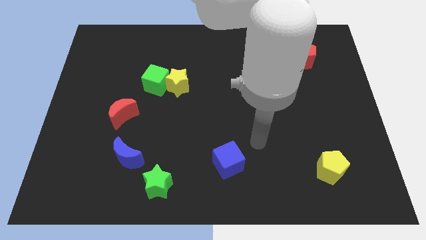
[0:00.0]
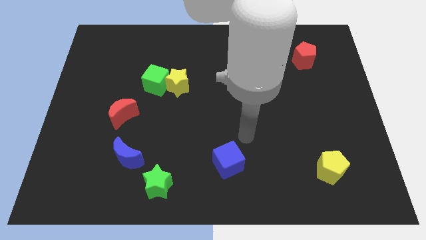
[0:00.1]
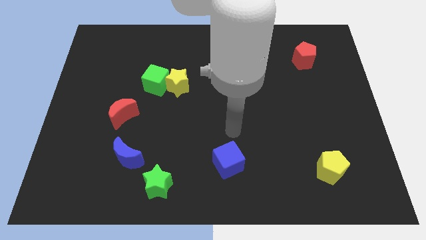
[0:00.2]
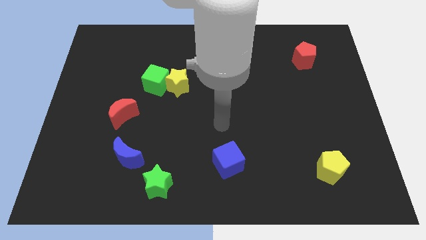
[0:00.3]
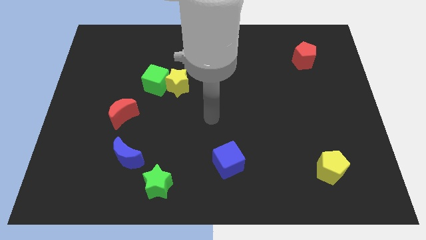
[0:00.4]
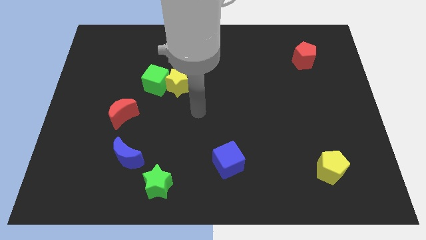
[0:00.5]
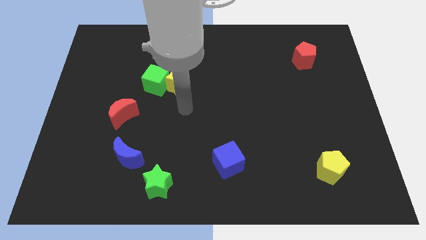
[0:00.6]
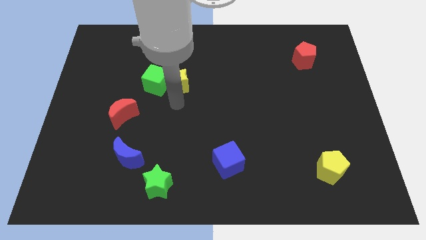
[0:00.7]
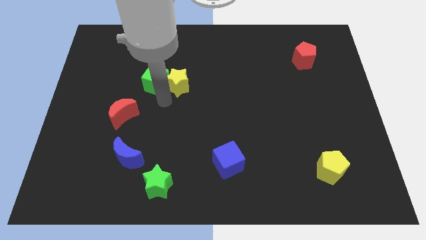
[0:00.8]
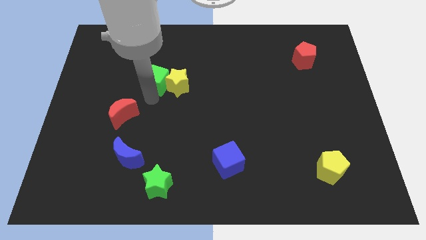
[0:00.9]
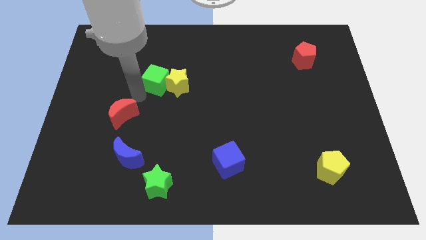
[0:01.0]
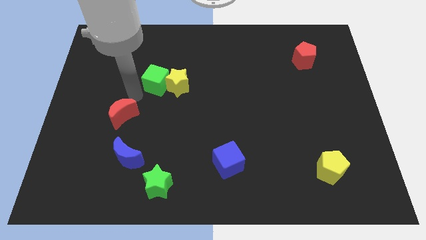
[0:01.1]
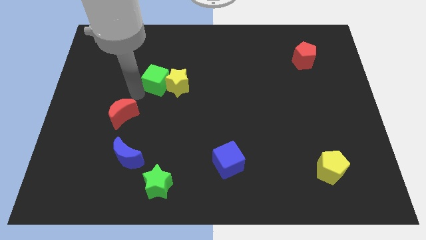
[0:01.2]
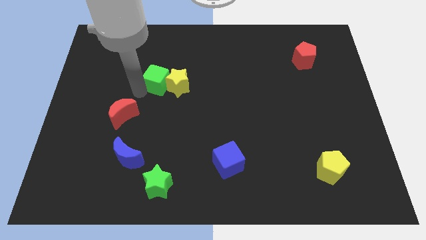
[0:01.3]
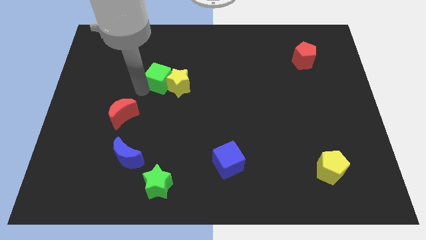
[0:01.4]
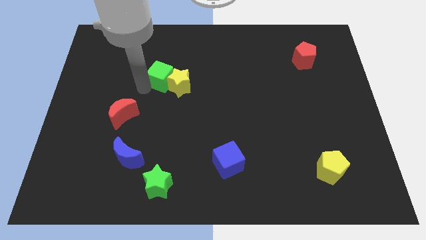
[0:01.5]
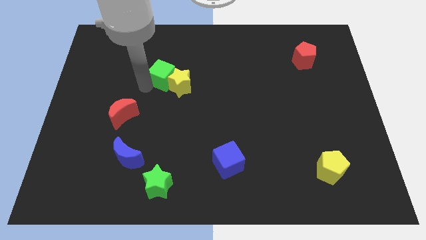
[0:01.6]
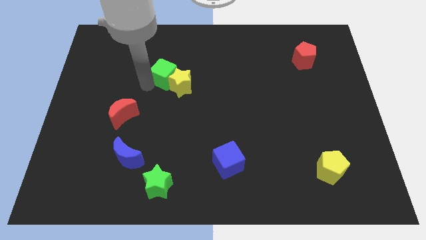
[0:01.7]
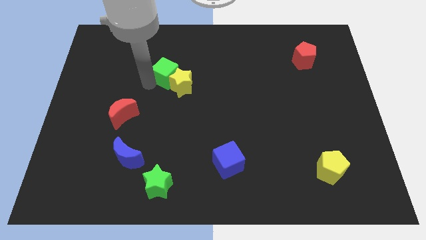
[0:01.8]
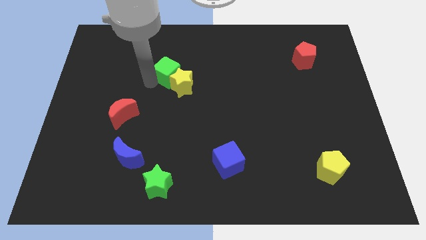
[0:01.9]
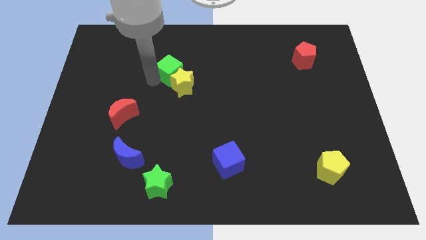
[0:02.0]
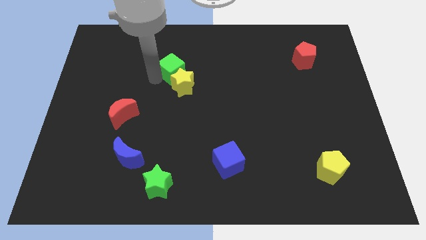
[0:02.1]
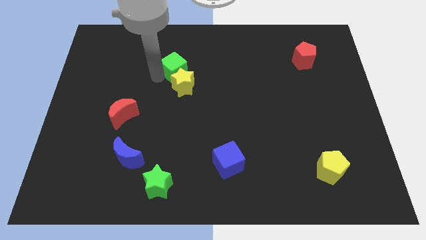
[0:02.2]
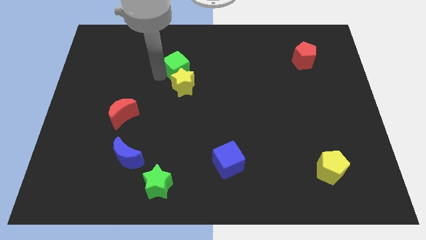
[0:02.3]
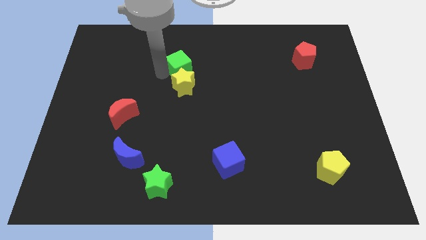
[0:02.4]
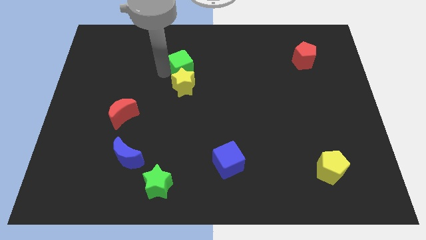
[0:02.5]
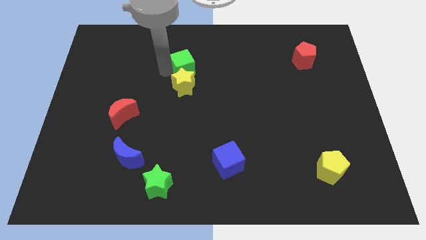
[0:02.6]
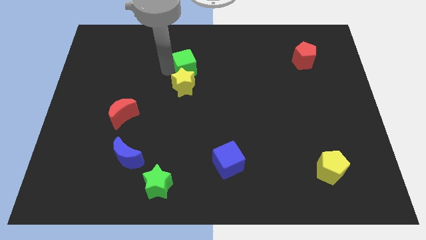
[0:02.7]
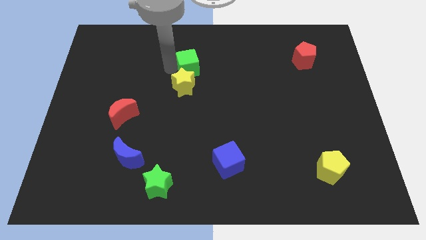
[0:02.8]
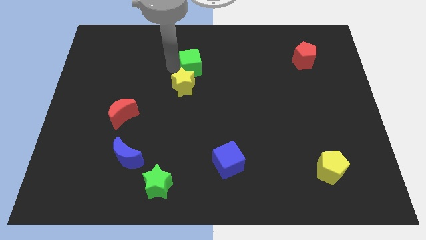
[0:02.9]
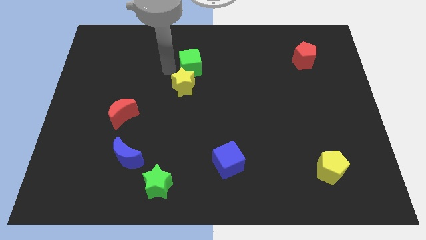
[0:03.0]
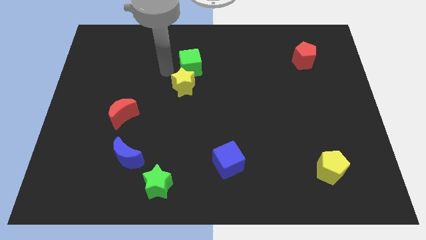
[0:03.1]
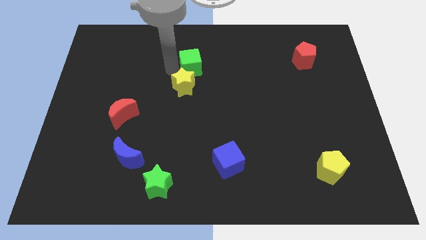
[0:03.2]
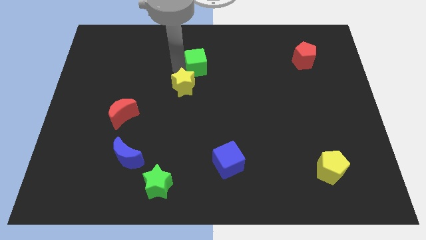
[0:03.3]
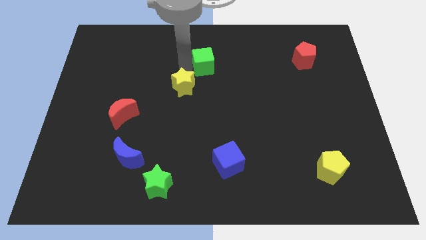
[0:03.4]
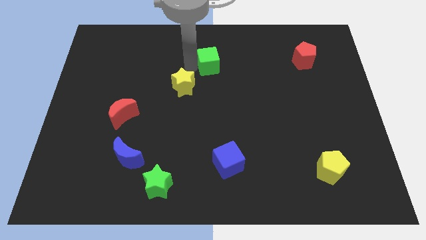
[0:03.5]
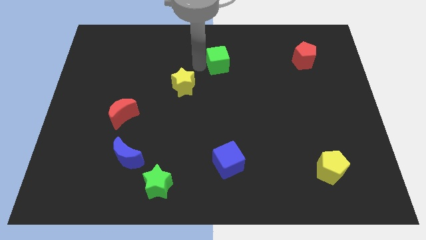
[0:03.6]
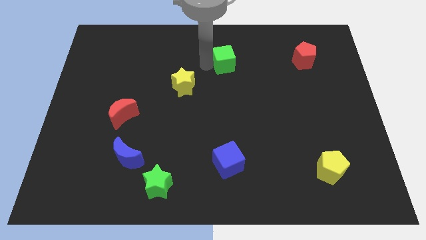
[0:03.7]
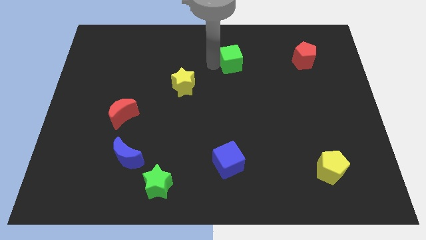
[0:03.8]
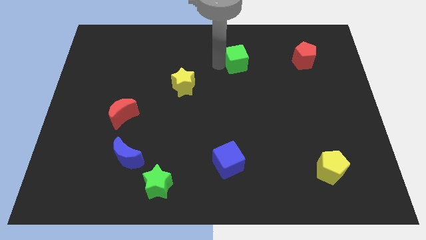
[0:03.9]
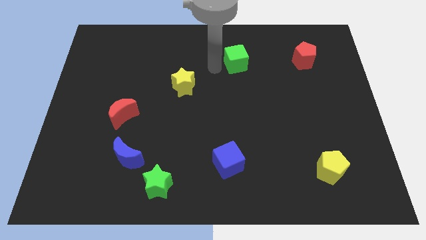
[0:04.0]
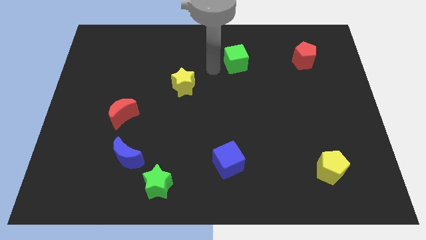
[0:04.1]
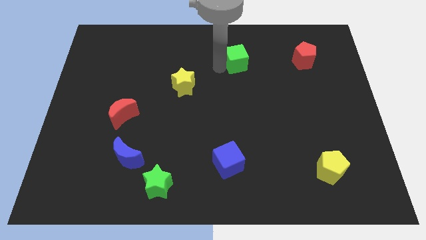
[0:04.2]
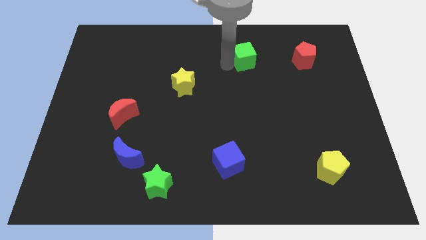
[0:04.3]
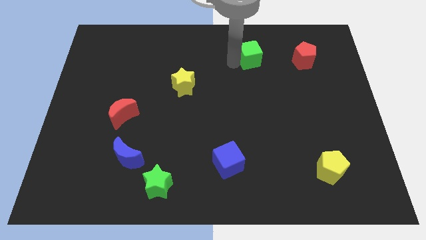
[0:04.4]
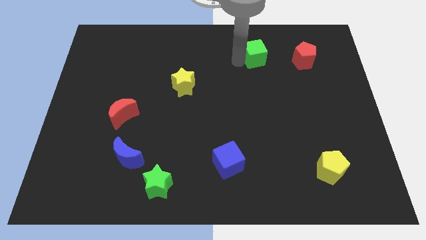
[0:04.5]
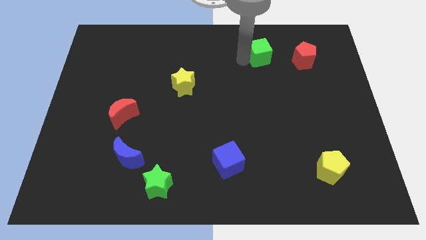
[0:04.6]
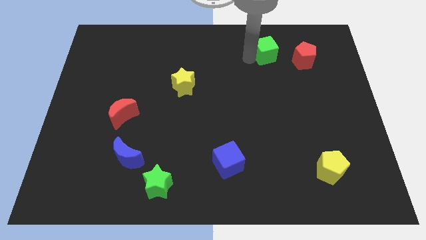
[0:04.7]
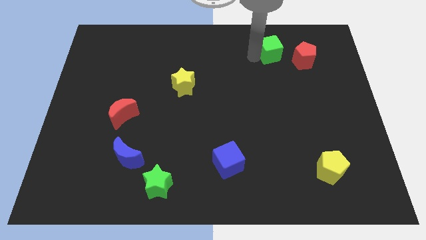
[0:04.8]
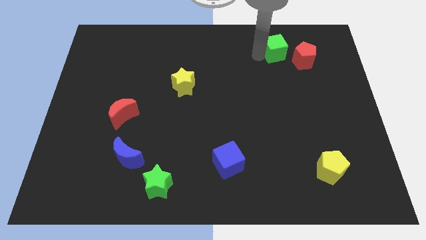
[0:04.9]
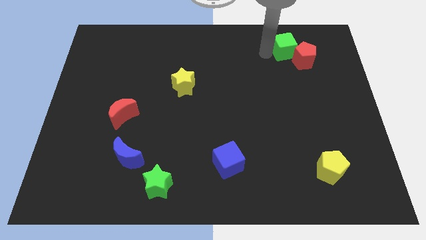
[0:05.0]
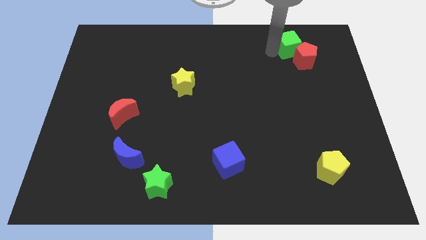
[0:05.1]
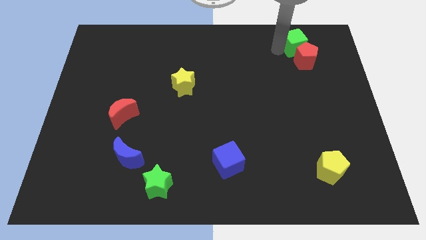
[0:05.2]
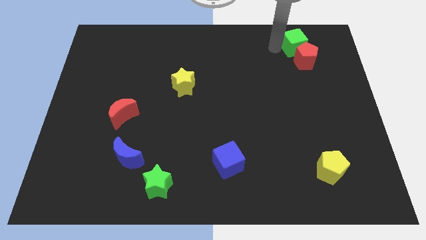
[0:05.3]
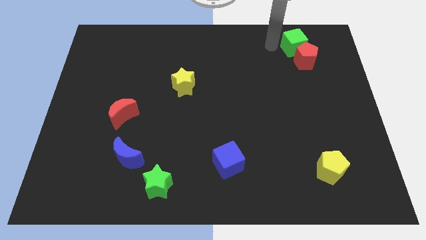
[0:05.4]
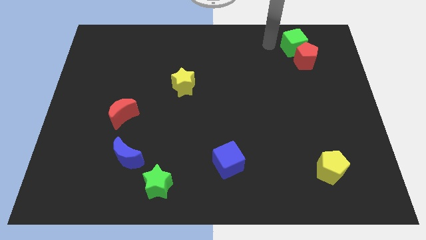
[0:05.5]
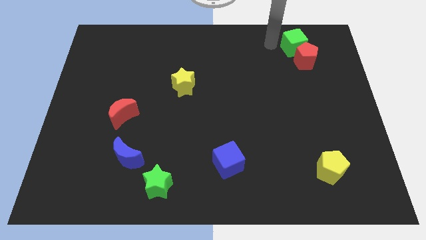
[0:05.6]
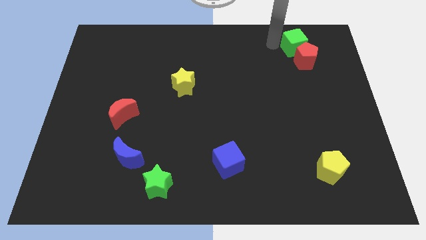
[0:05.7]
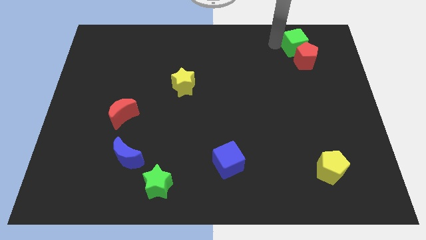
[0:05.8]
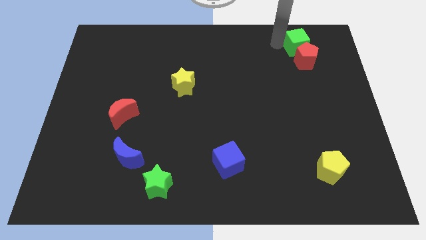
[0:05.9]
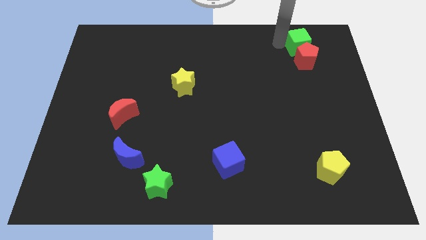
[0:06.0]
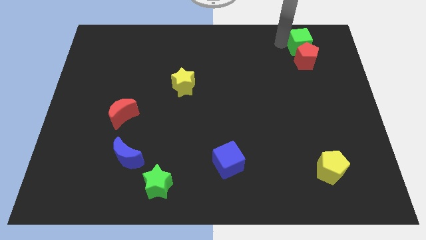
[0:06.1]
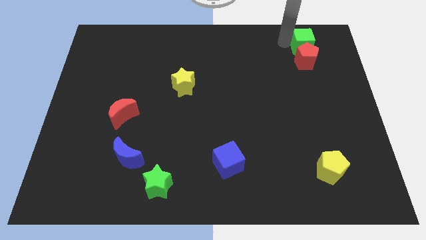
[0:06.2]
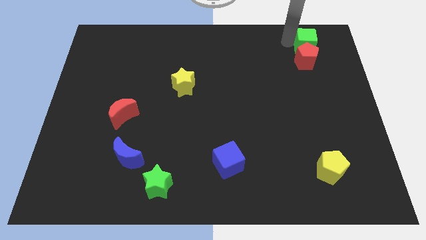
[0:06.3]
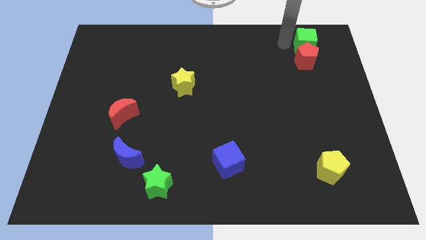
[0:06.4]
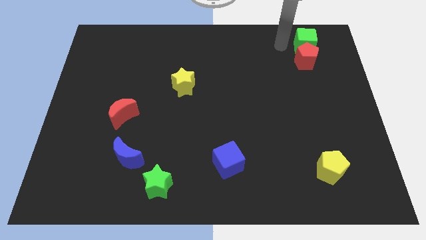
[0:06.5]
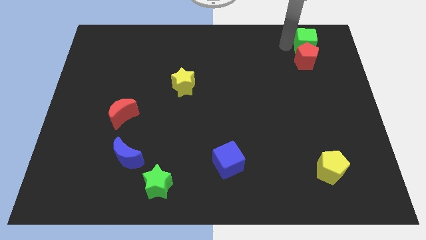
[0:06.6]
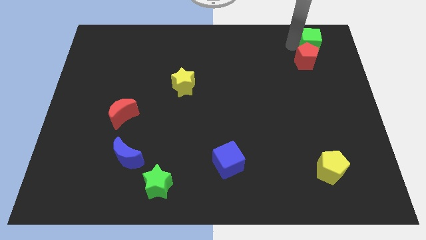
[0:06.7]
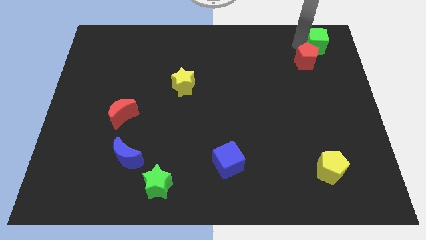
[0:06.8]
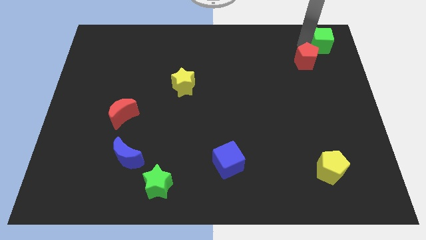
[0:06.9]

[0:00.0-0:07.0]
move the green cube to the top right of the board
